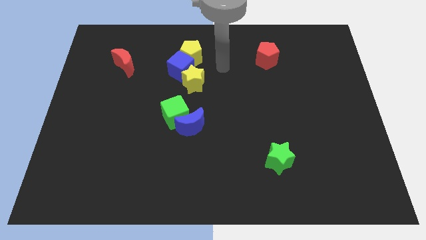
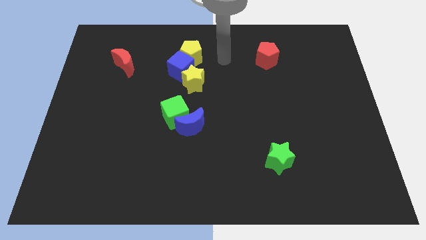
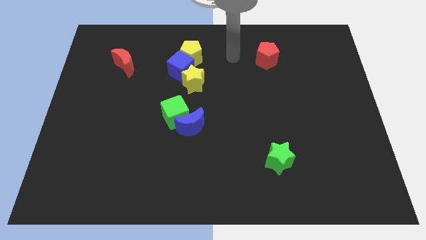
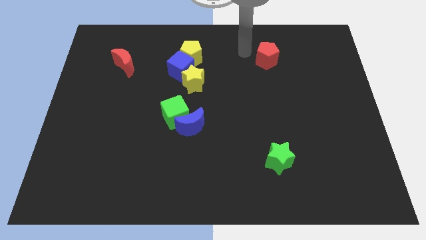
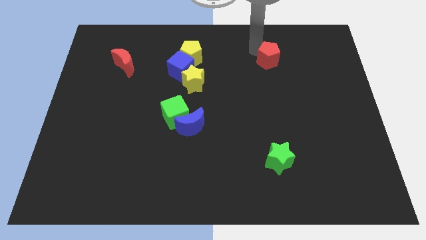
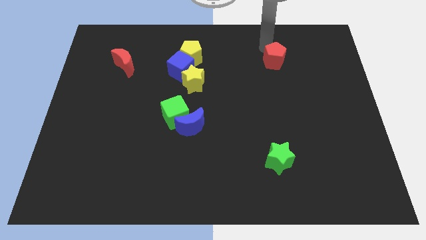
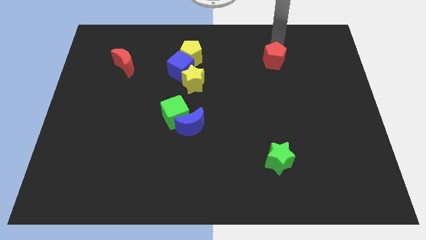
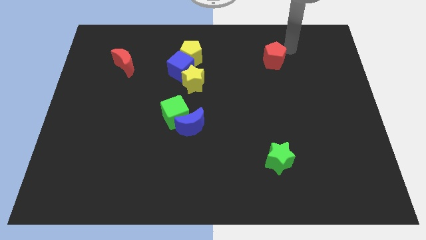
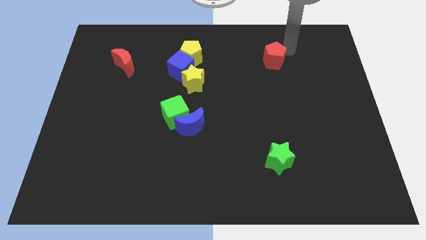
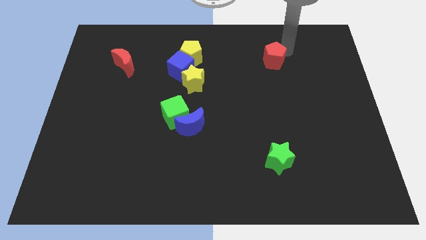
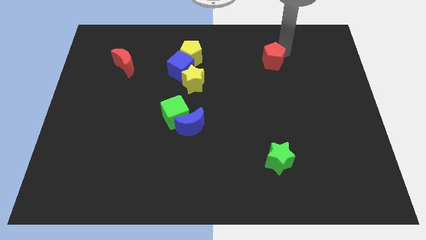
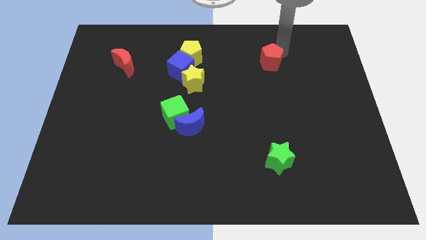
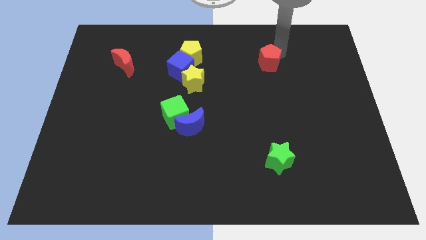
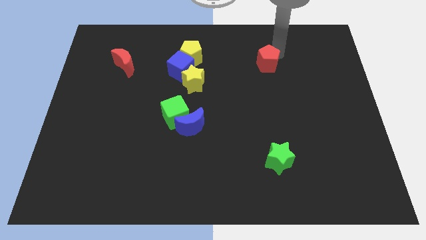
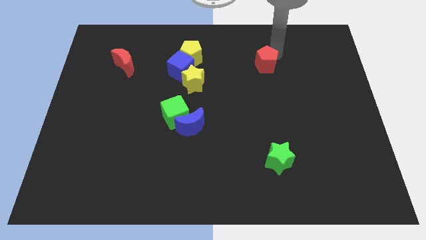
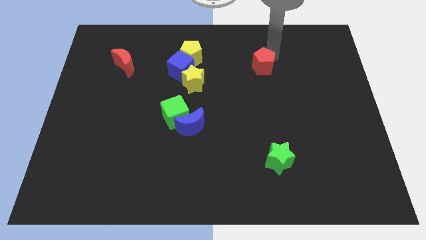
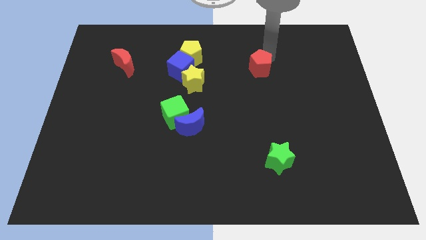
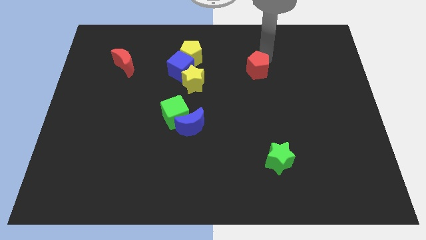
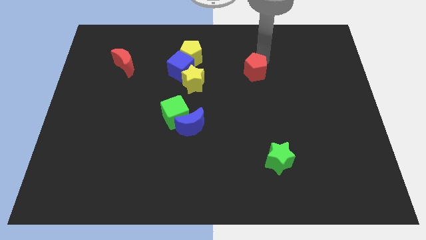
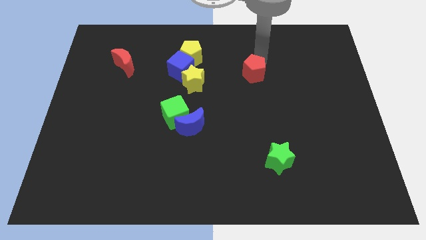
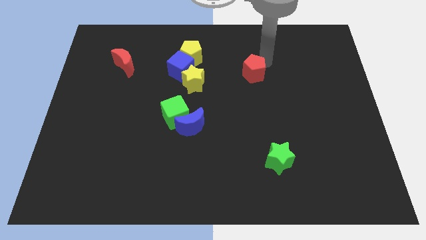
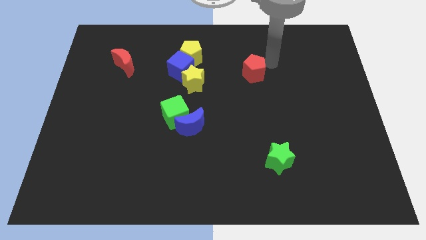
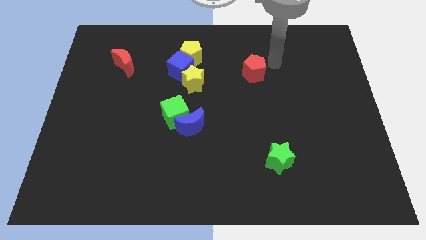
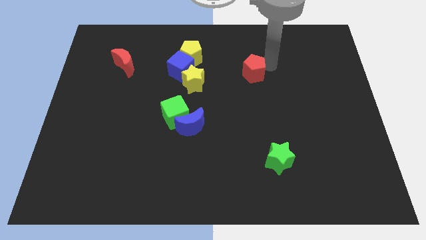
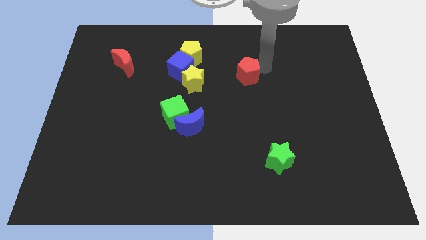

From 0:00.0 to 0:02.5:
slide the red pentagon a bit diagonally downwards and left

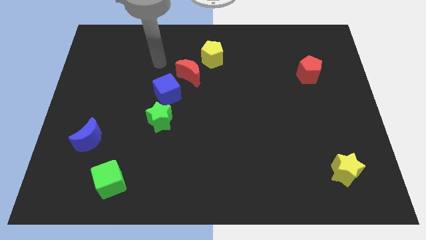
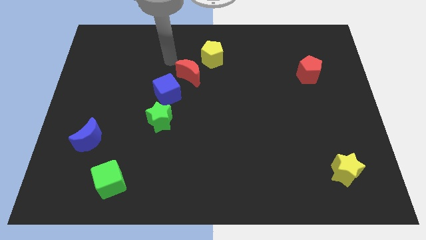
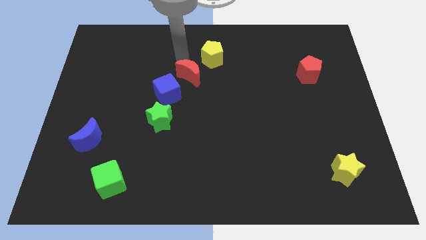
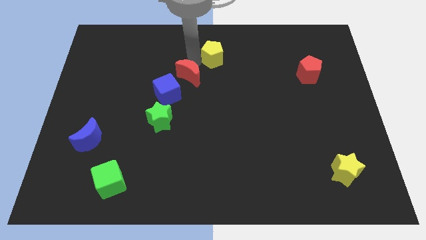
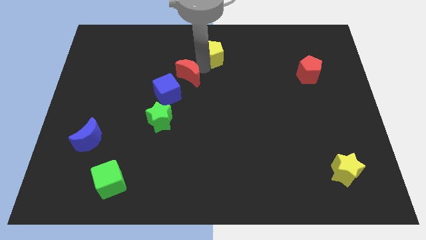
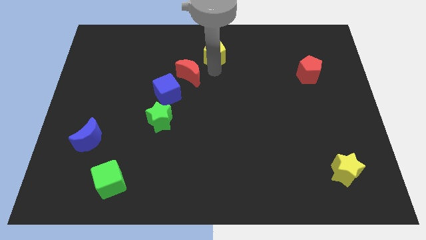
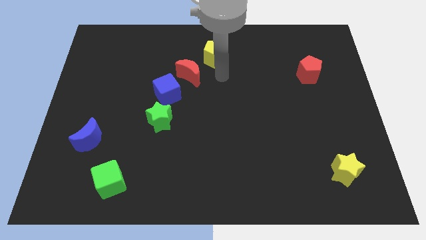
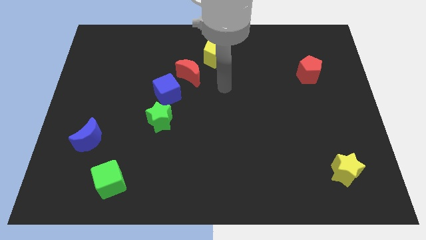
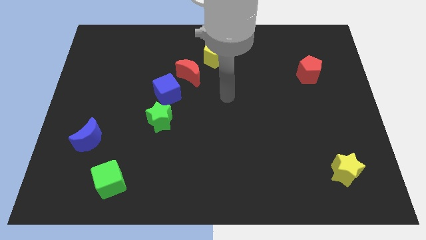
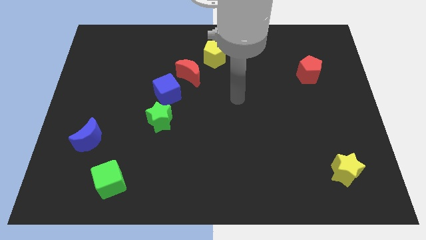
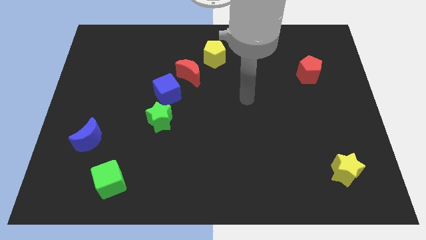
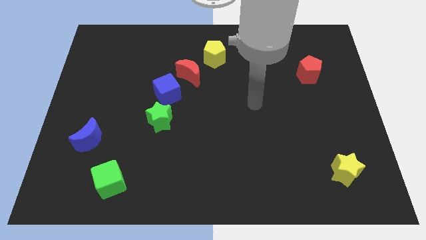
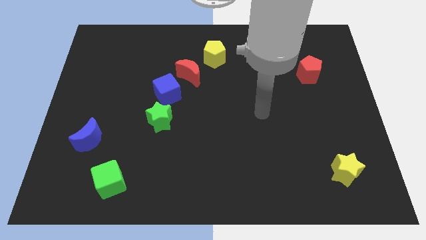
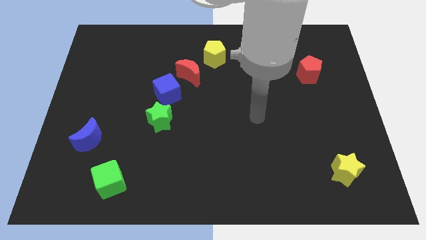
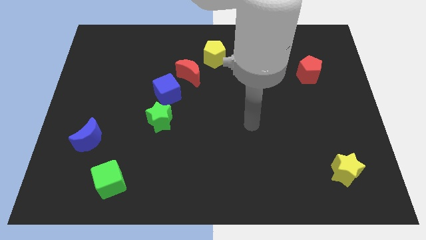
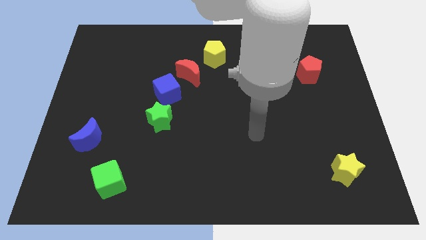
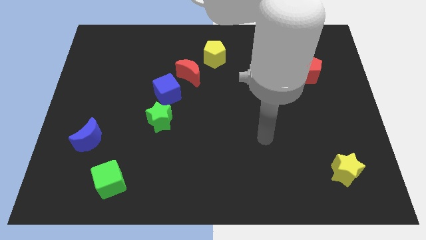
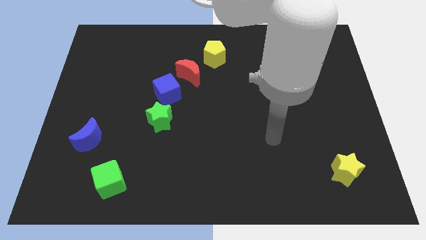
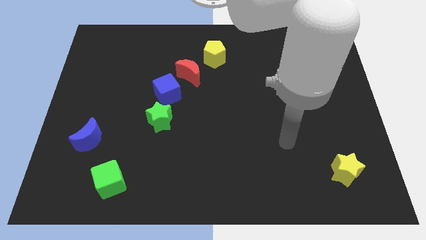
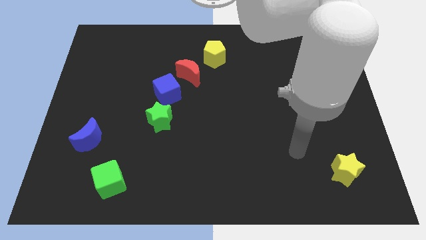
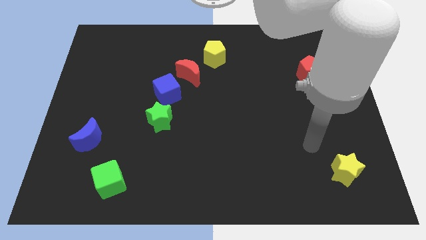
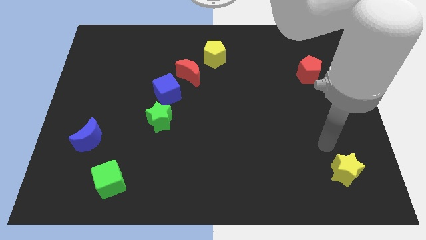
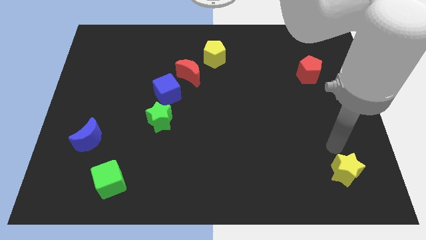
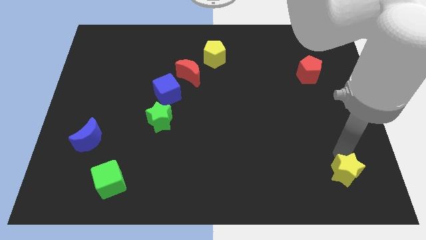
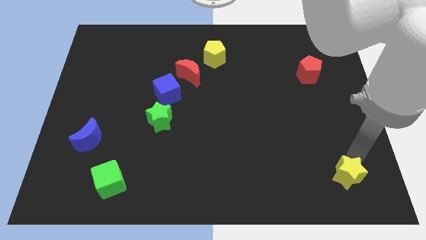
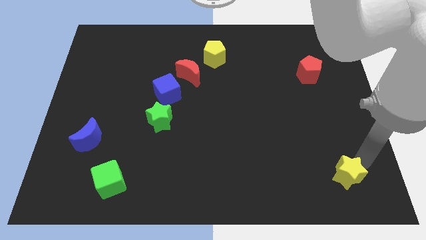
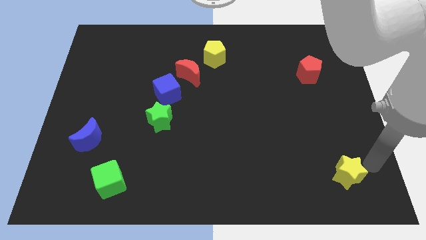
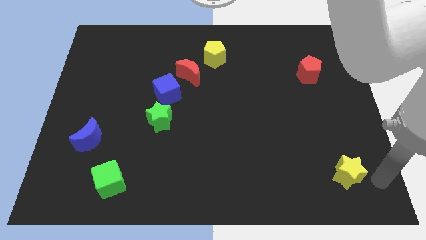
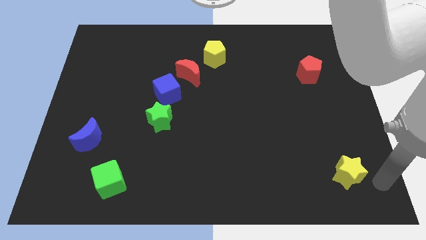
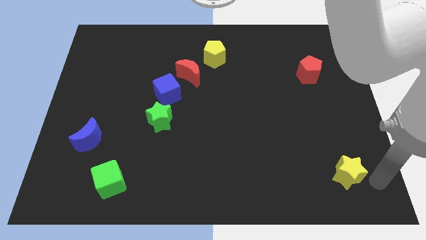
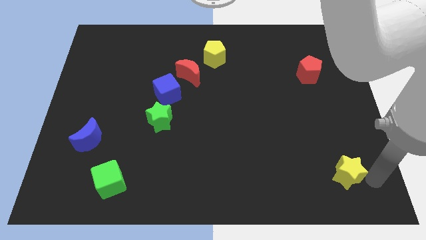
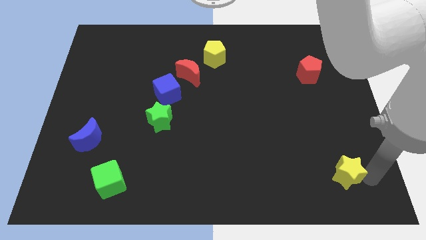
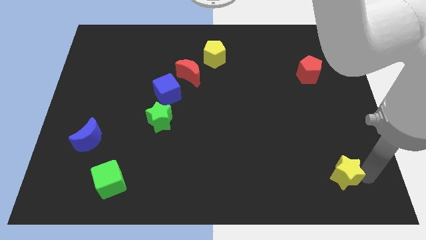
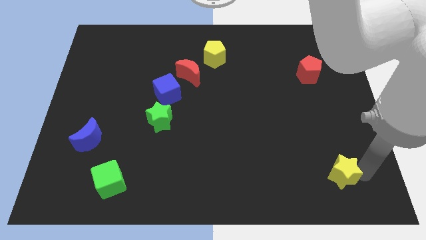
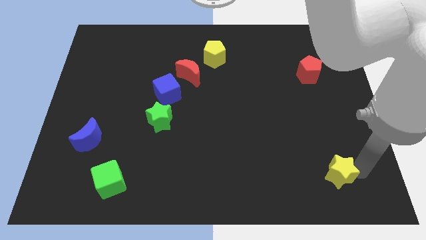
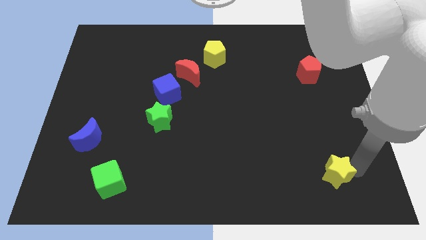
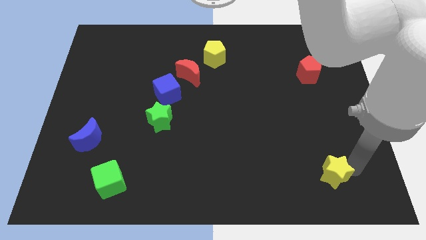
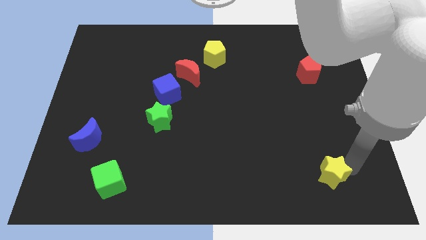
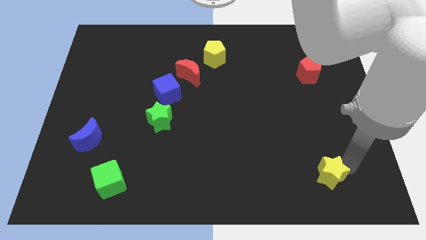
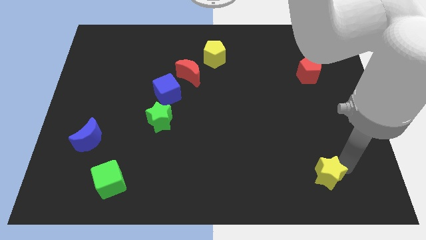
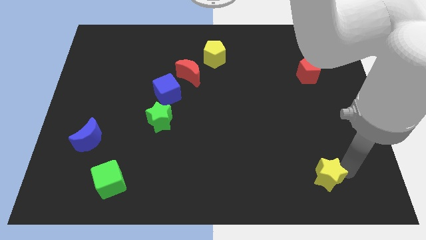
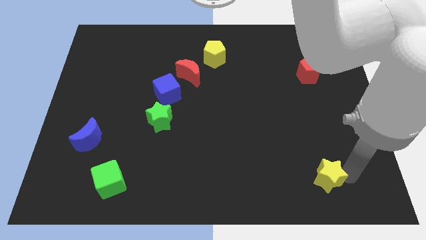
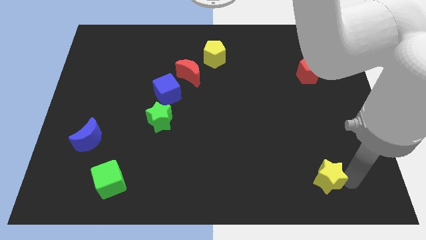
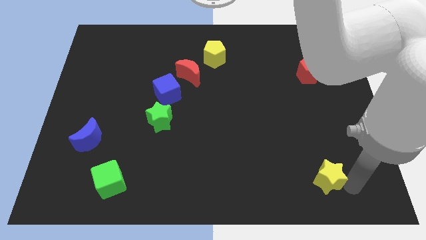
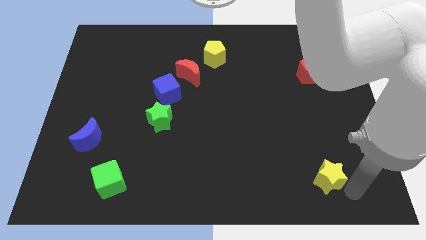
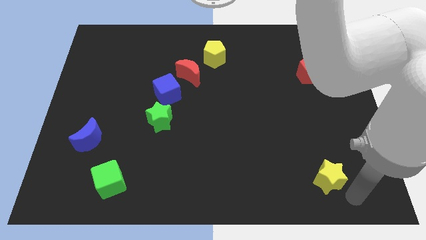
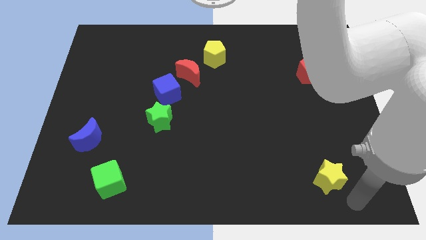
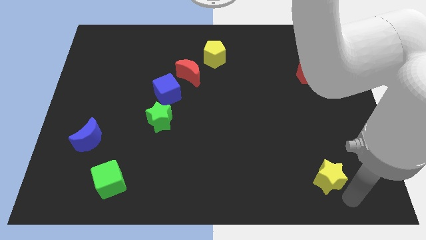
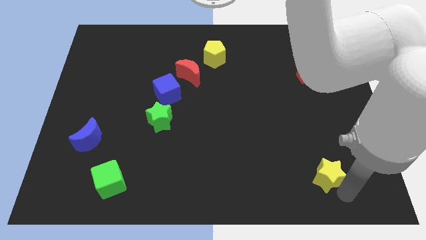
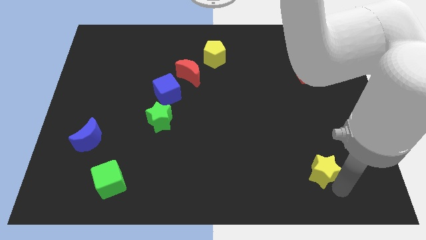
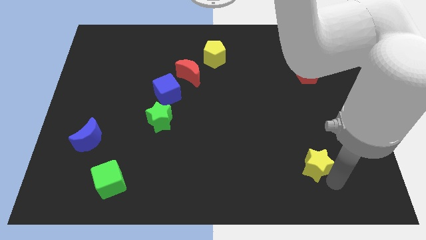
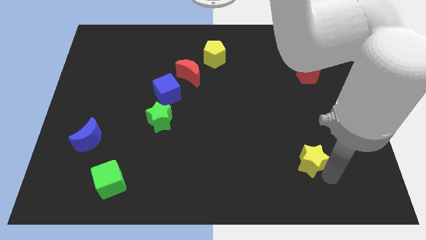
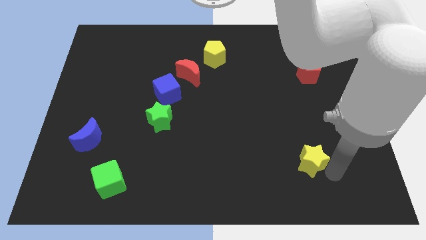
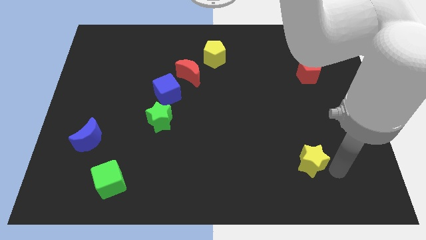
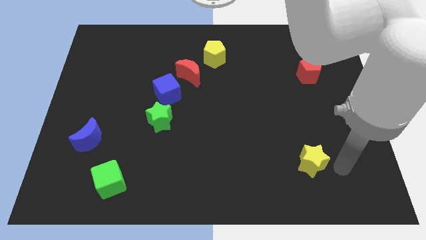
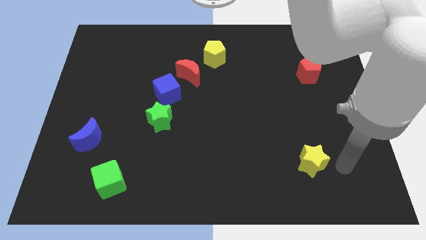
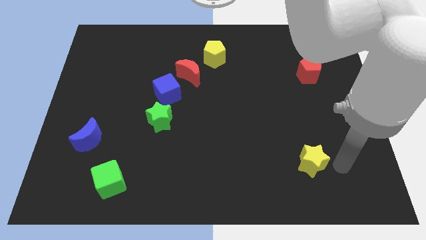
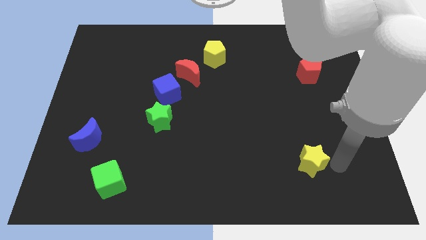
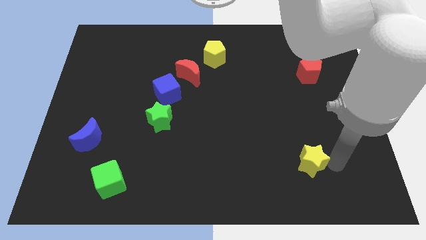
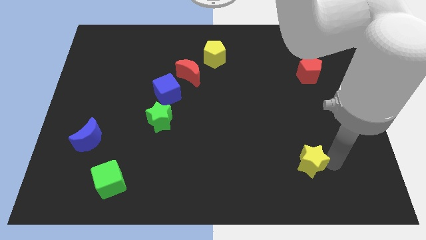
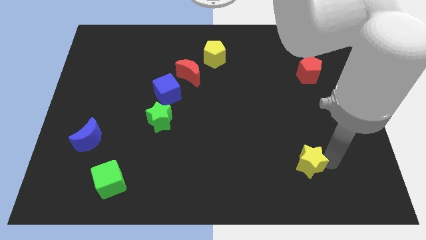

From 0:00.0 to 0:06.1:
move the yellow star somewhat left
